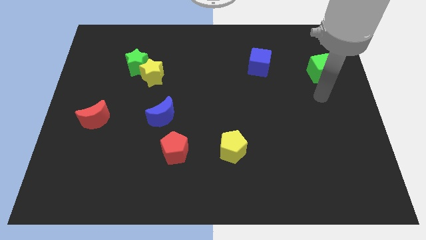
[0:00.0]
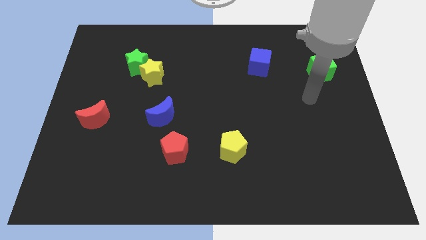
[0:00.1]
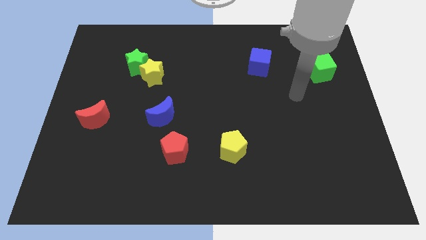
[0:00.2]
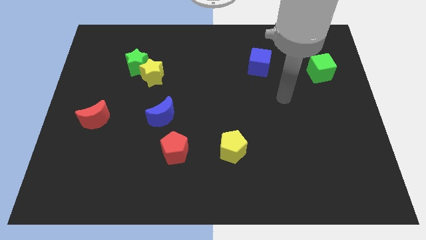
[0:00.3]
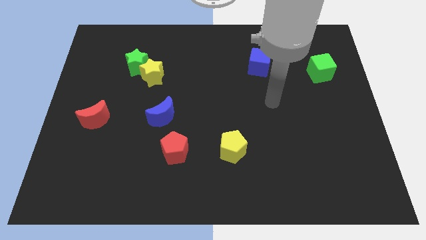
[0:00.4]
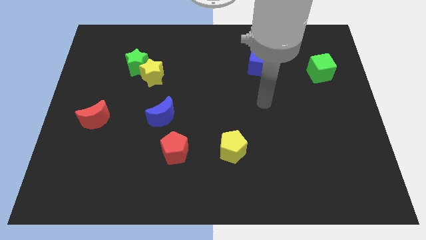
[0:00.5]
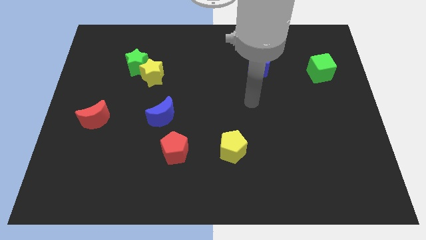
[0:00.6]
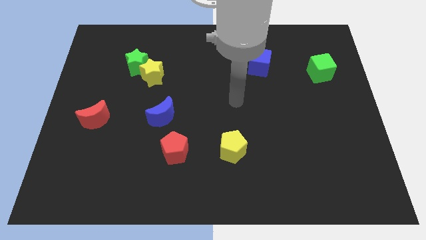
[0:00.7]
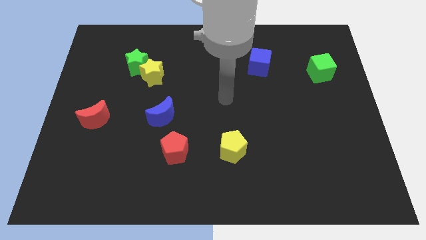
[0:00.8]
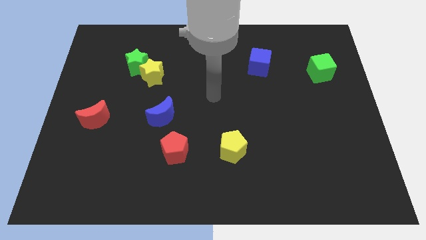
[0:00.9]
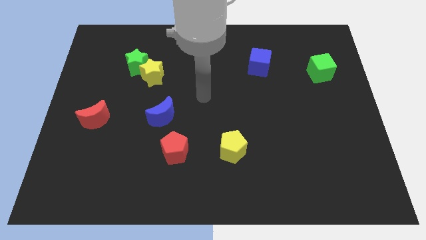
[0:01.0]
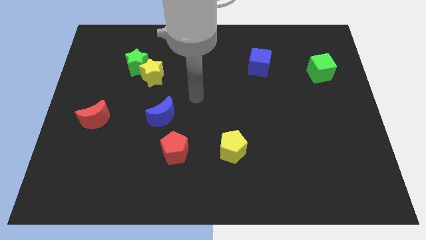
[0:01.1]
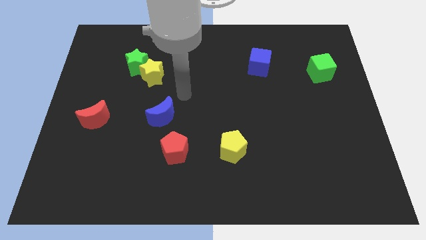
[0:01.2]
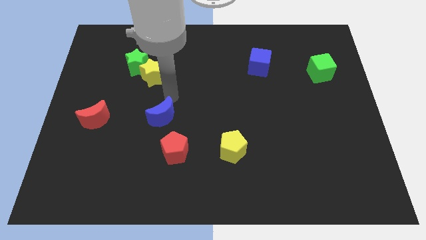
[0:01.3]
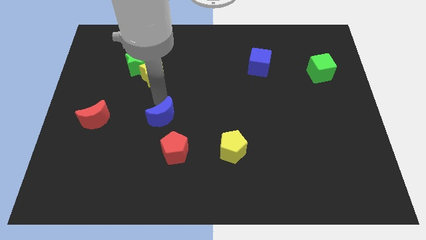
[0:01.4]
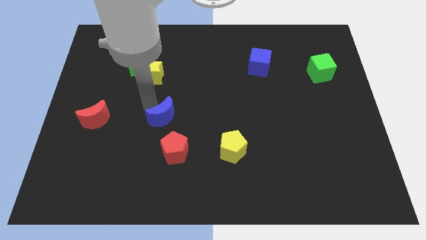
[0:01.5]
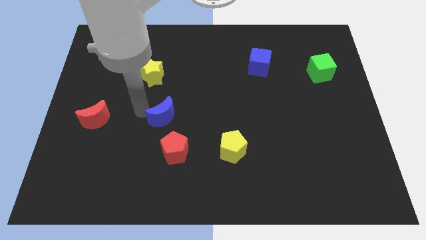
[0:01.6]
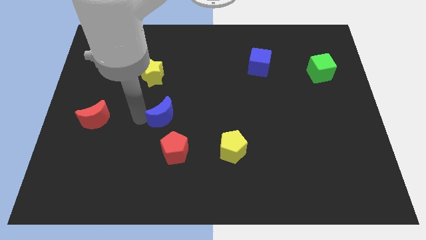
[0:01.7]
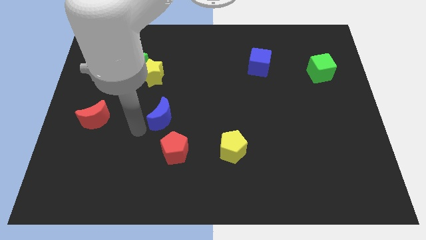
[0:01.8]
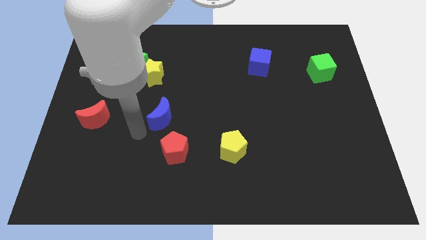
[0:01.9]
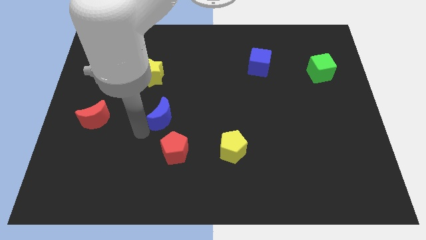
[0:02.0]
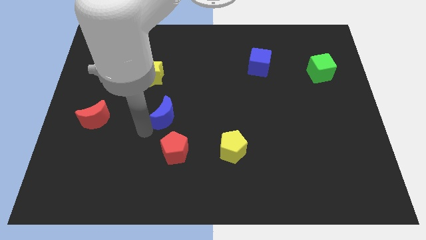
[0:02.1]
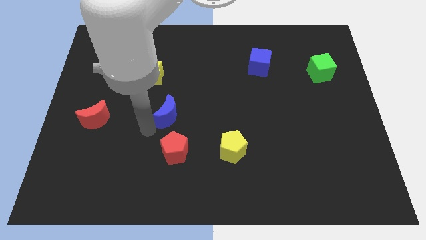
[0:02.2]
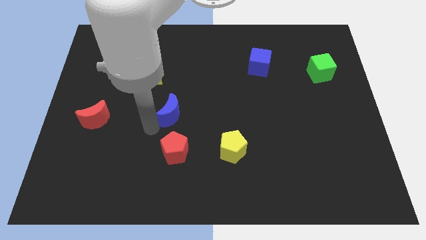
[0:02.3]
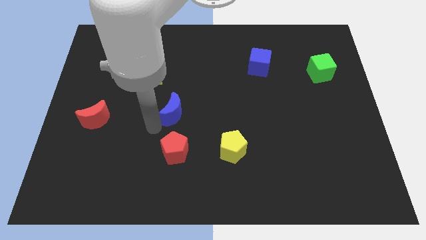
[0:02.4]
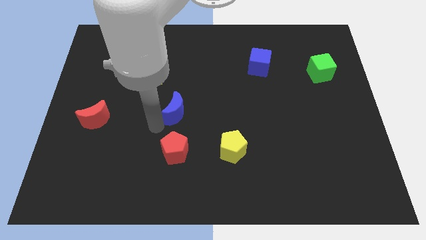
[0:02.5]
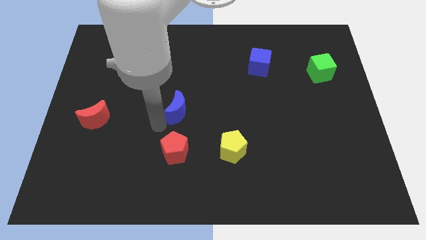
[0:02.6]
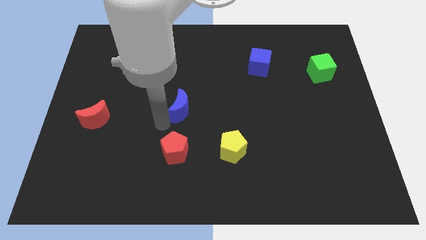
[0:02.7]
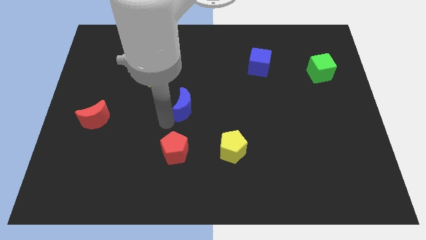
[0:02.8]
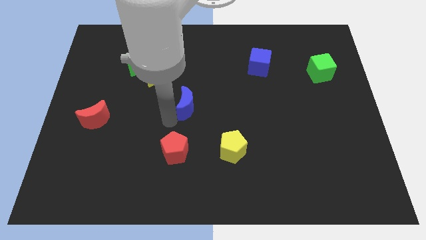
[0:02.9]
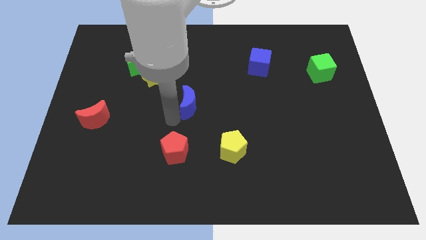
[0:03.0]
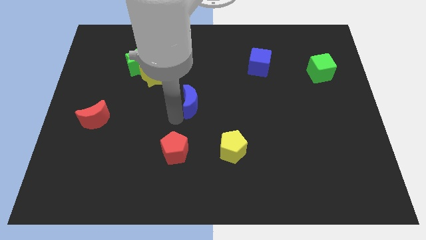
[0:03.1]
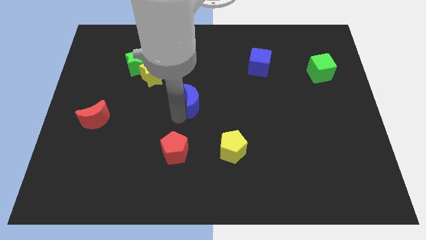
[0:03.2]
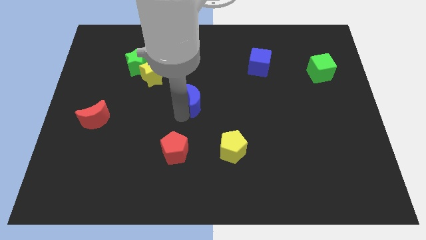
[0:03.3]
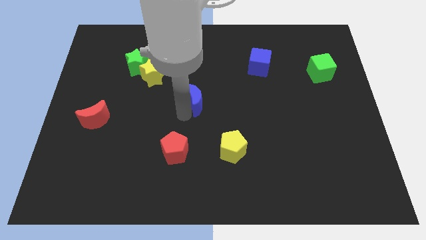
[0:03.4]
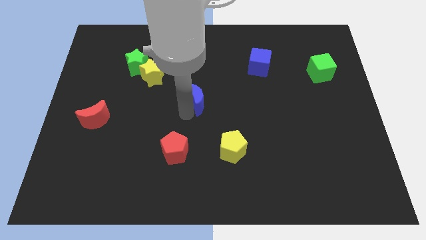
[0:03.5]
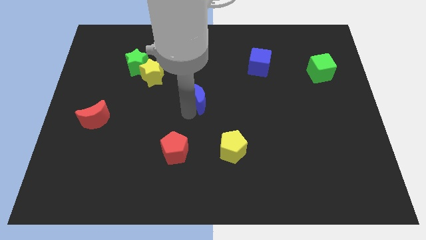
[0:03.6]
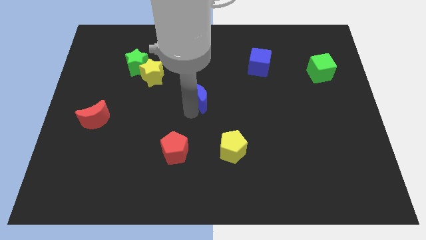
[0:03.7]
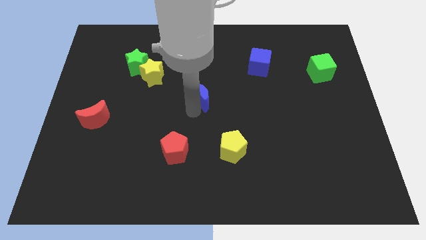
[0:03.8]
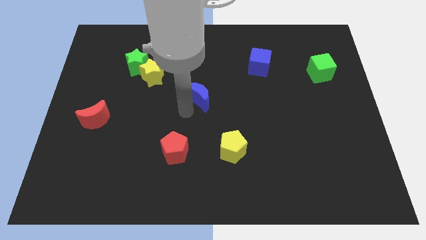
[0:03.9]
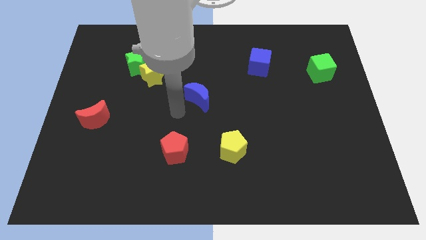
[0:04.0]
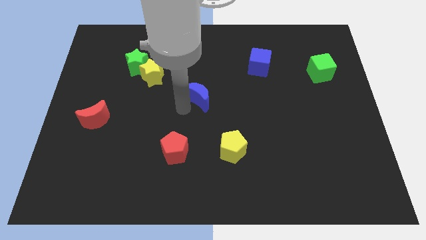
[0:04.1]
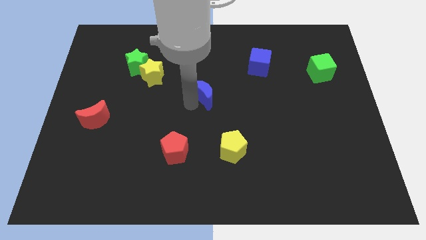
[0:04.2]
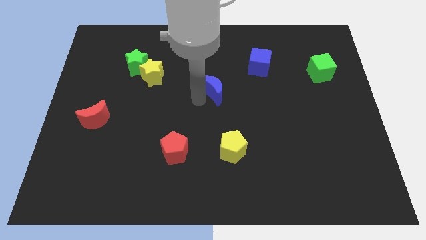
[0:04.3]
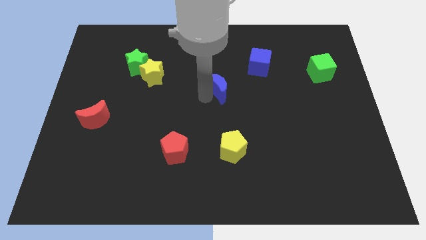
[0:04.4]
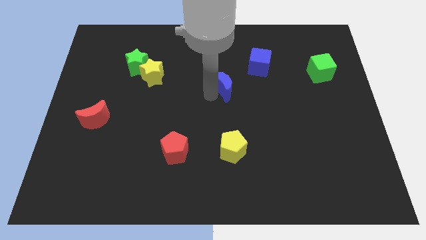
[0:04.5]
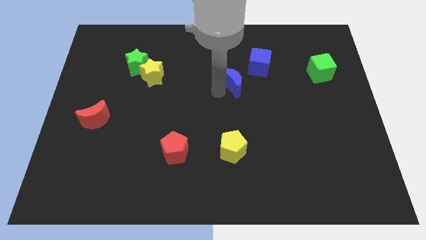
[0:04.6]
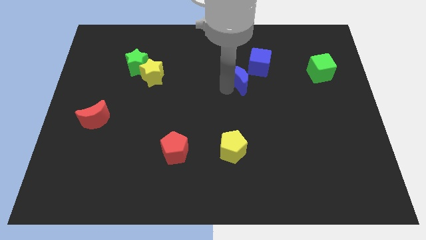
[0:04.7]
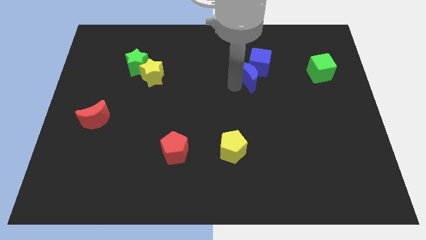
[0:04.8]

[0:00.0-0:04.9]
push the blue moon close to the blue cube

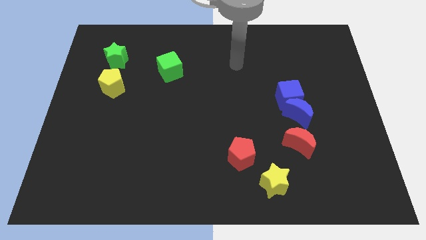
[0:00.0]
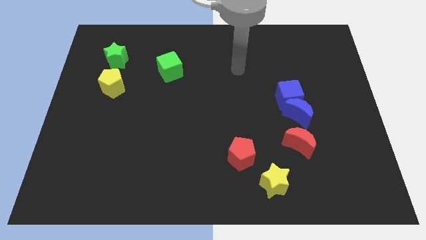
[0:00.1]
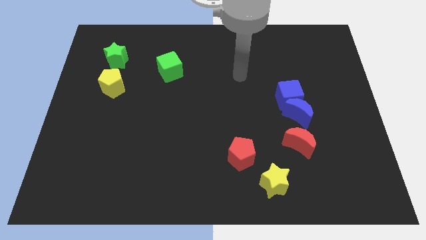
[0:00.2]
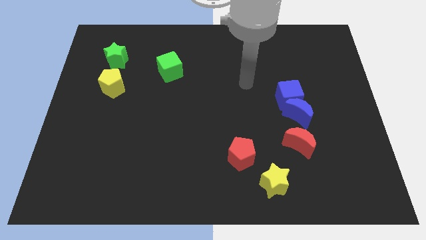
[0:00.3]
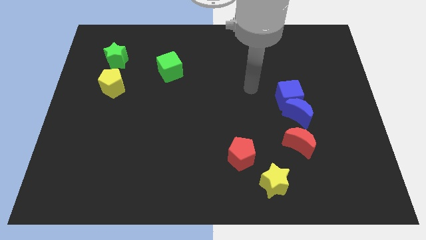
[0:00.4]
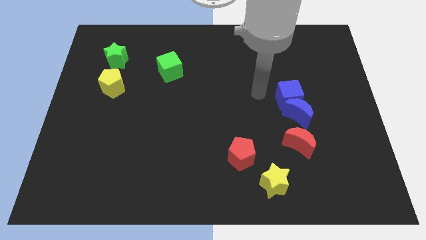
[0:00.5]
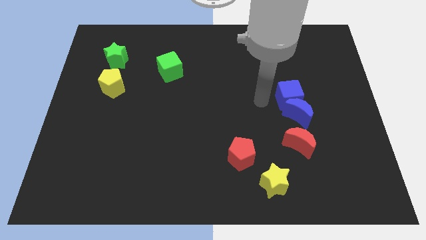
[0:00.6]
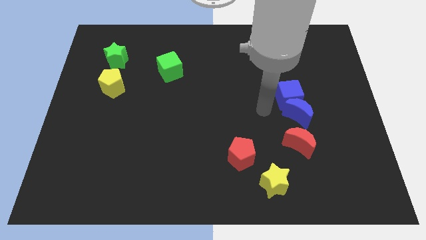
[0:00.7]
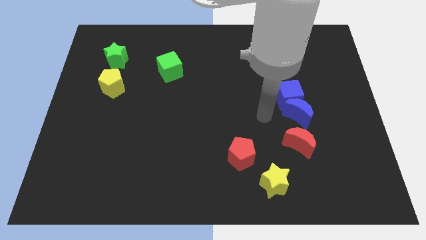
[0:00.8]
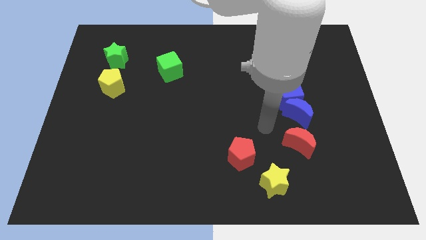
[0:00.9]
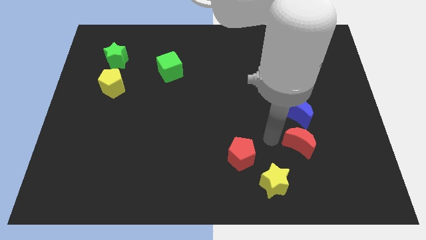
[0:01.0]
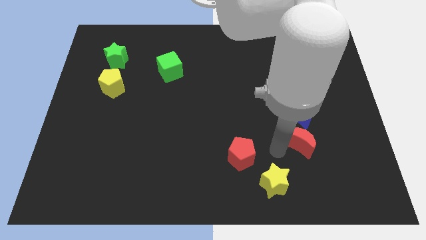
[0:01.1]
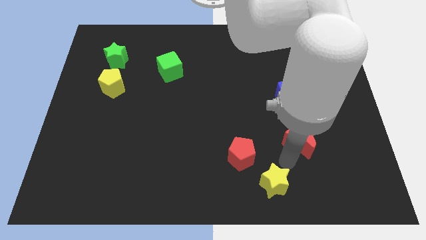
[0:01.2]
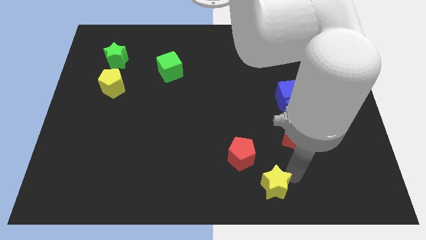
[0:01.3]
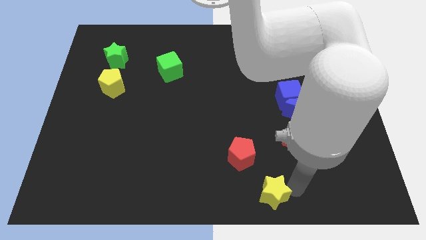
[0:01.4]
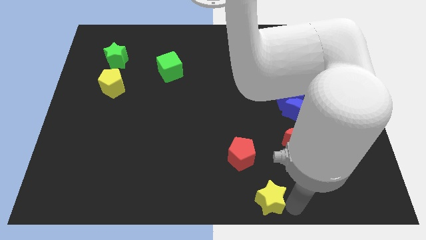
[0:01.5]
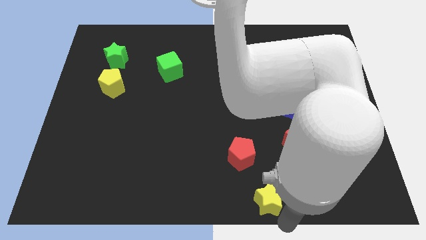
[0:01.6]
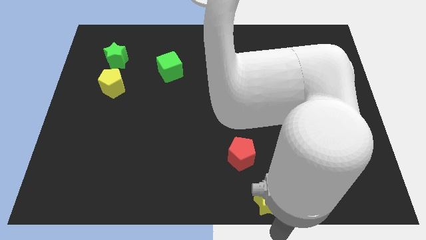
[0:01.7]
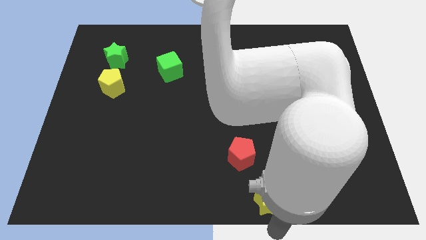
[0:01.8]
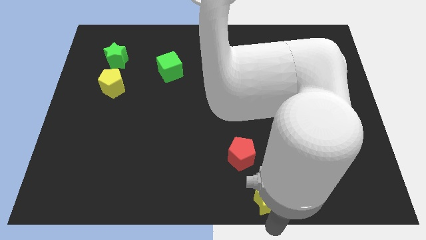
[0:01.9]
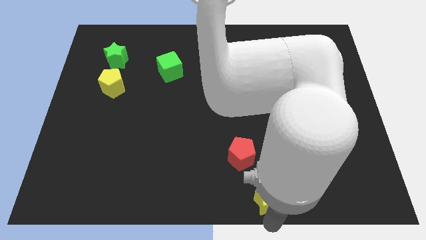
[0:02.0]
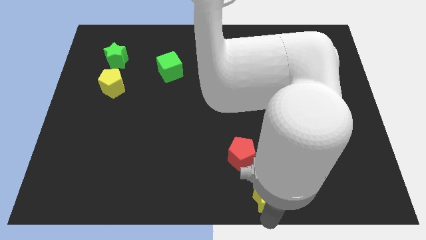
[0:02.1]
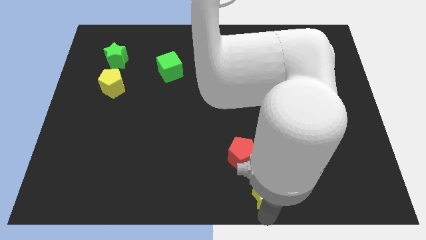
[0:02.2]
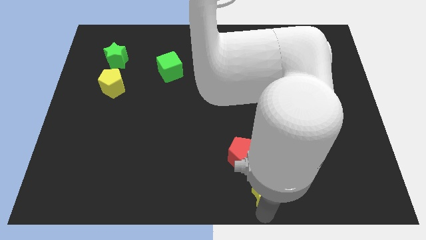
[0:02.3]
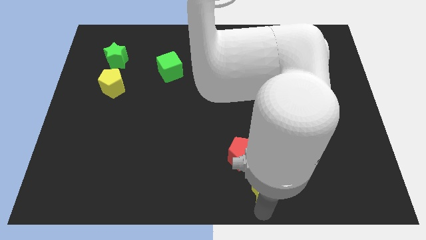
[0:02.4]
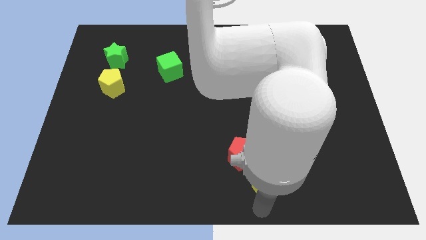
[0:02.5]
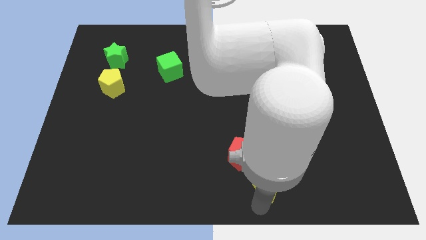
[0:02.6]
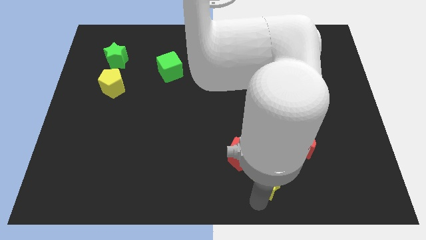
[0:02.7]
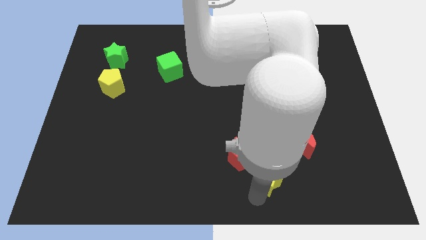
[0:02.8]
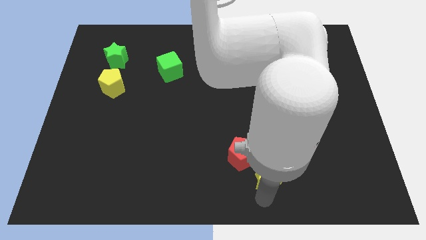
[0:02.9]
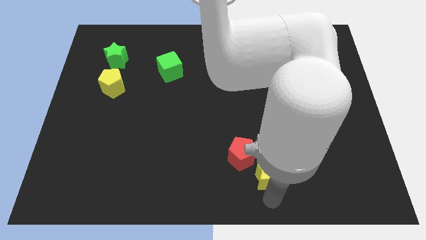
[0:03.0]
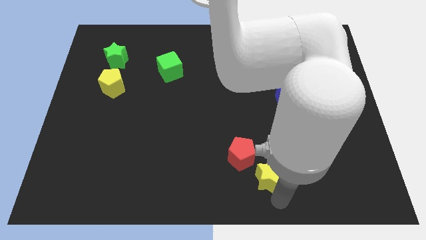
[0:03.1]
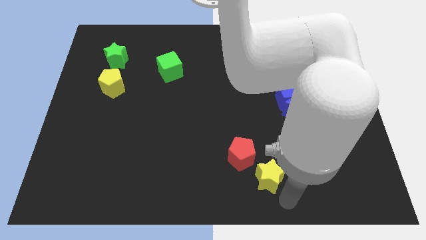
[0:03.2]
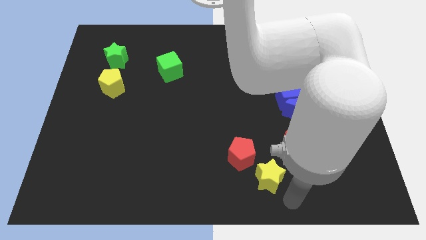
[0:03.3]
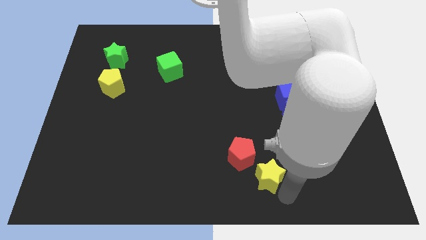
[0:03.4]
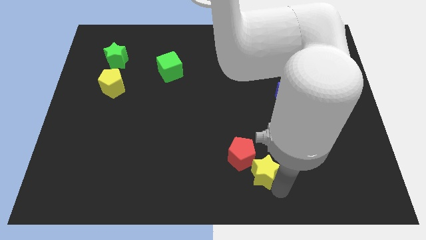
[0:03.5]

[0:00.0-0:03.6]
push the yellow star next to the red pentagon
